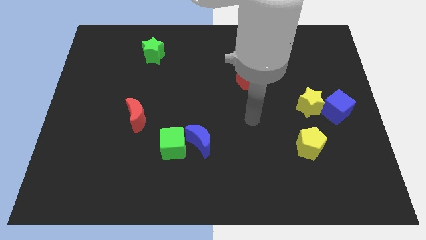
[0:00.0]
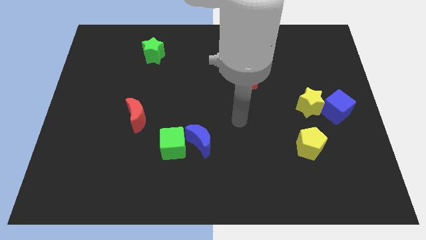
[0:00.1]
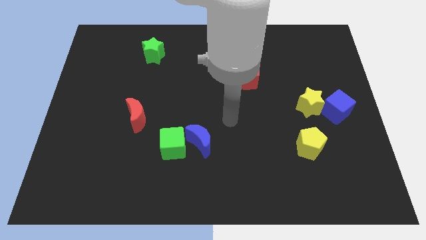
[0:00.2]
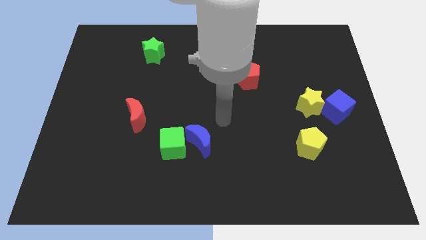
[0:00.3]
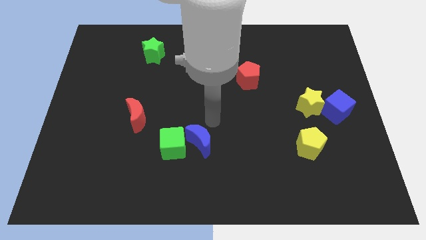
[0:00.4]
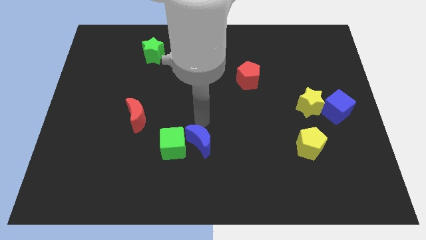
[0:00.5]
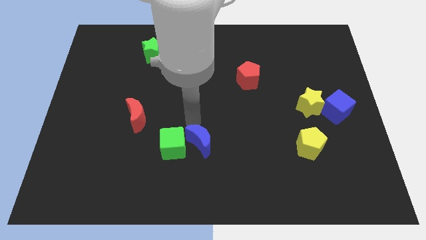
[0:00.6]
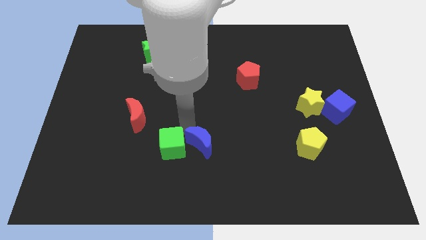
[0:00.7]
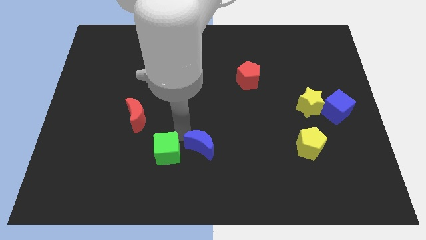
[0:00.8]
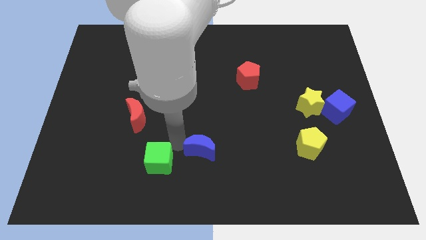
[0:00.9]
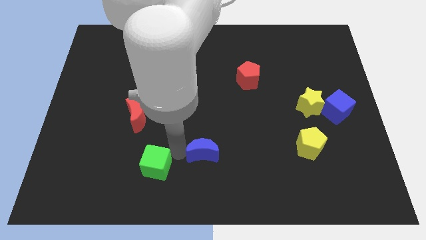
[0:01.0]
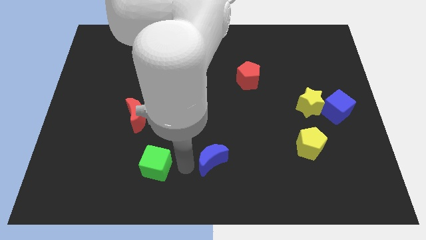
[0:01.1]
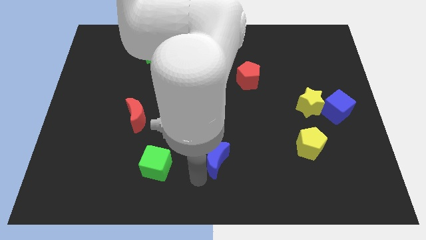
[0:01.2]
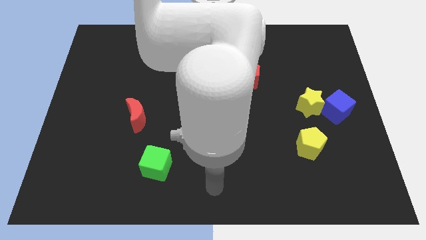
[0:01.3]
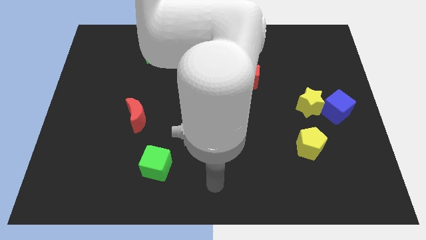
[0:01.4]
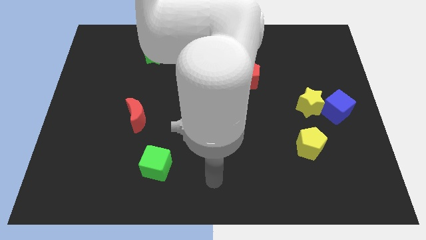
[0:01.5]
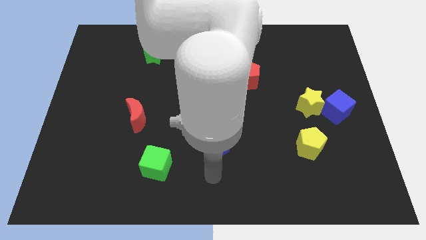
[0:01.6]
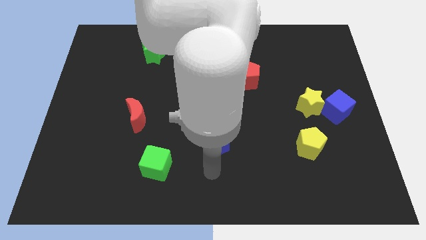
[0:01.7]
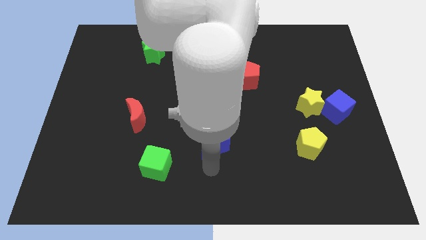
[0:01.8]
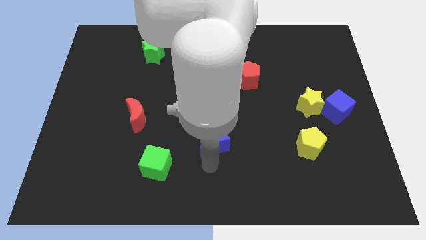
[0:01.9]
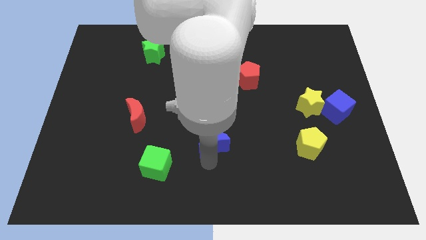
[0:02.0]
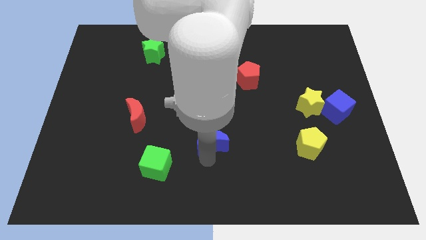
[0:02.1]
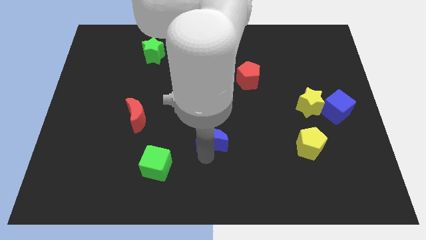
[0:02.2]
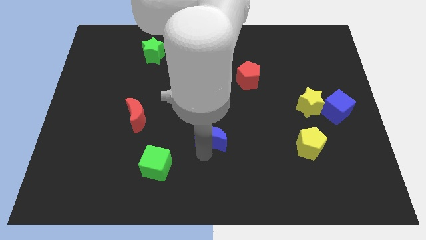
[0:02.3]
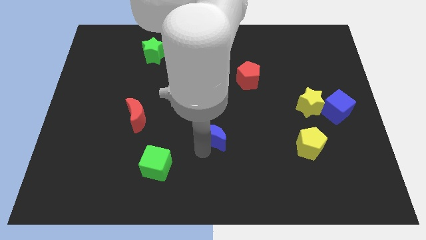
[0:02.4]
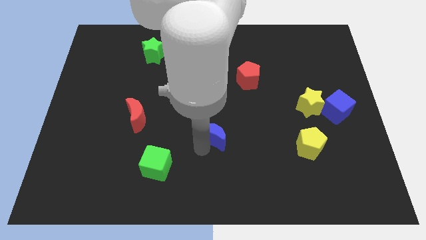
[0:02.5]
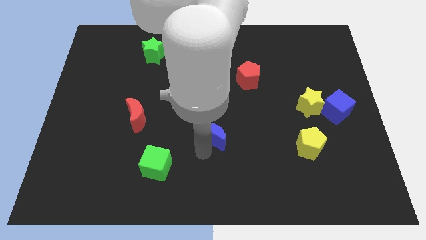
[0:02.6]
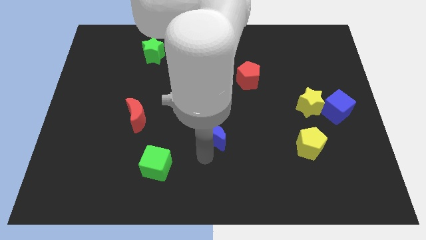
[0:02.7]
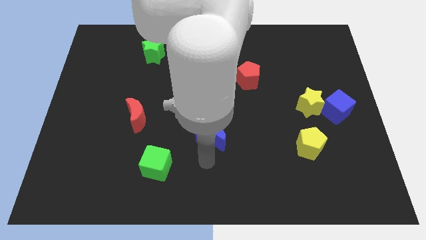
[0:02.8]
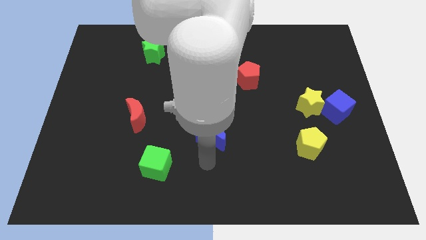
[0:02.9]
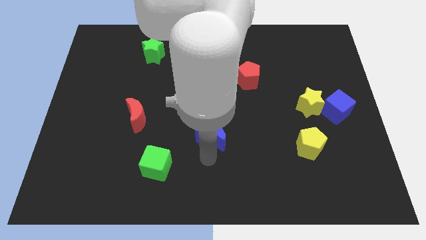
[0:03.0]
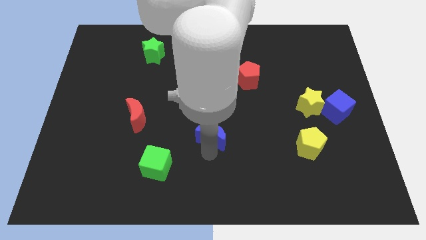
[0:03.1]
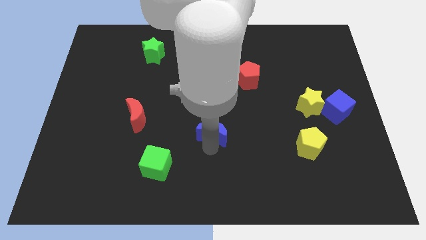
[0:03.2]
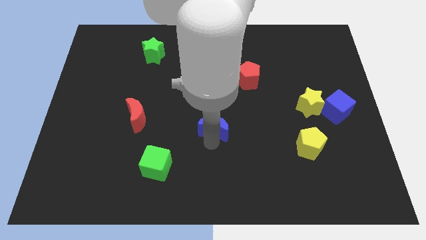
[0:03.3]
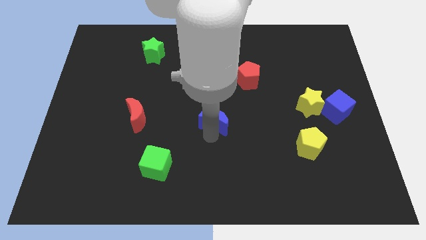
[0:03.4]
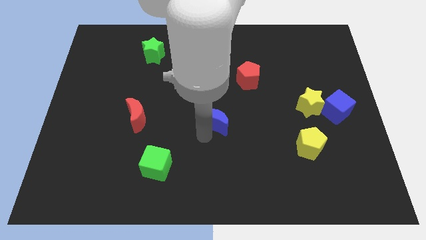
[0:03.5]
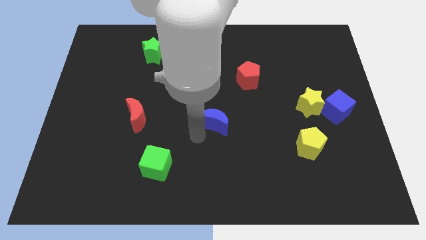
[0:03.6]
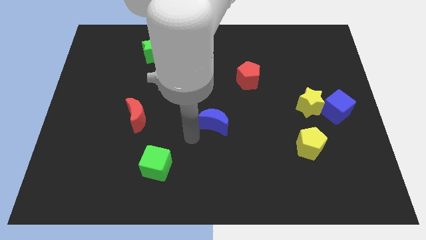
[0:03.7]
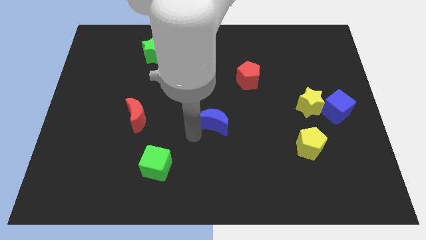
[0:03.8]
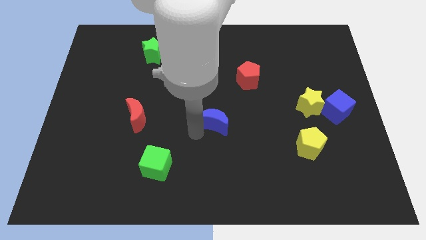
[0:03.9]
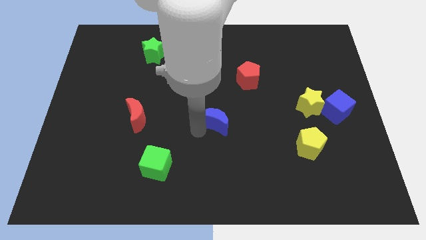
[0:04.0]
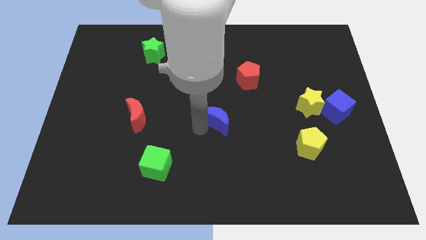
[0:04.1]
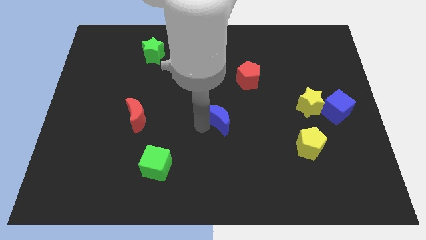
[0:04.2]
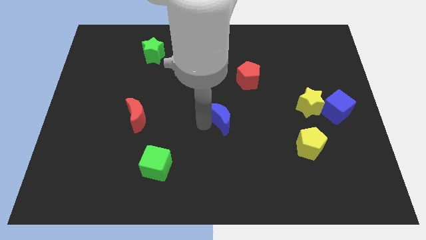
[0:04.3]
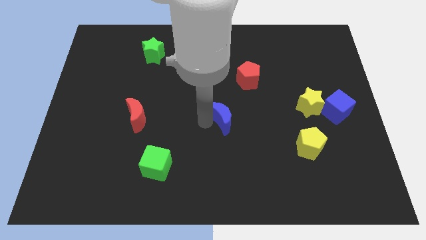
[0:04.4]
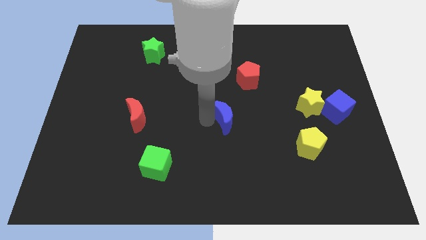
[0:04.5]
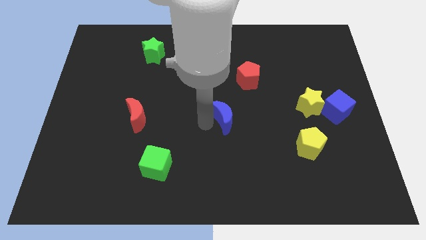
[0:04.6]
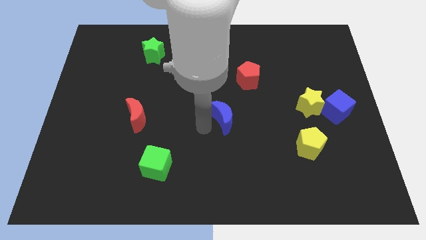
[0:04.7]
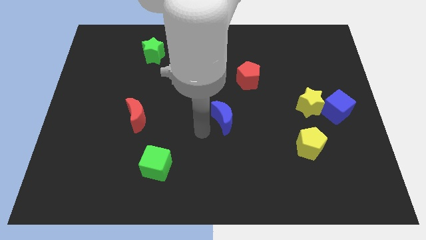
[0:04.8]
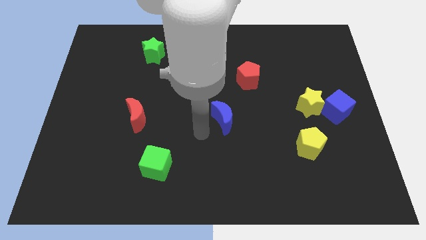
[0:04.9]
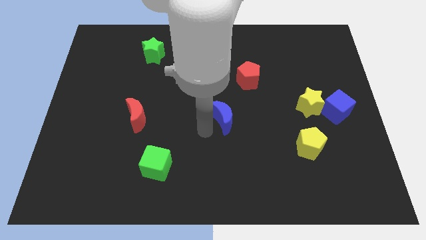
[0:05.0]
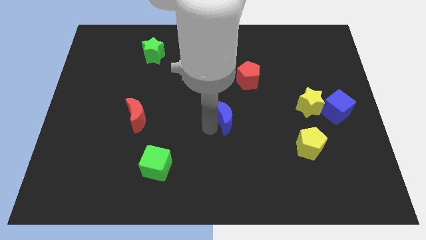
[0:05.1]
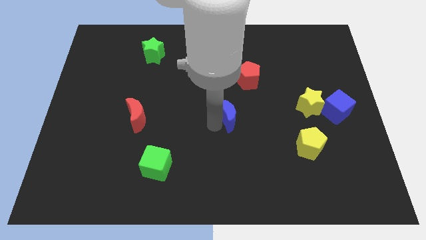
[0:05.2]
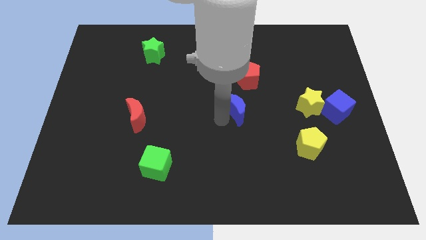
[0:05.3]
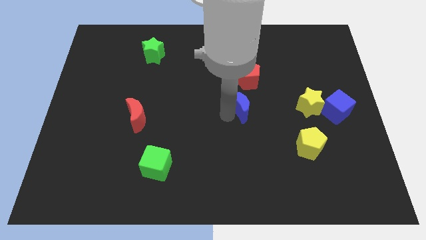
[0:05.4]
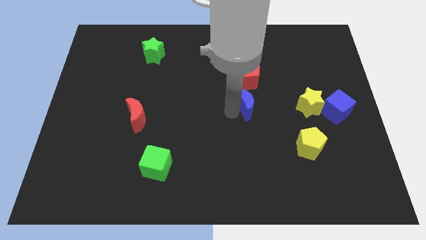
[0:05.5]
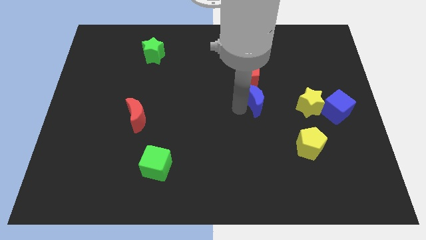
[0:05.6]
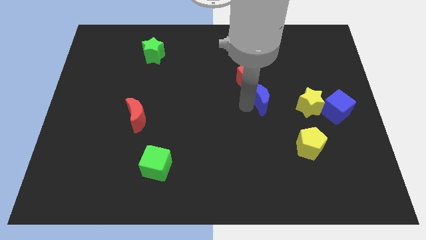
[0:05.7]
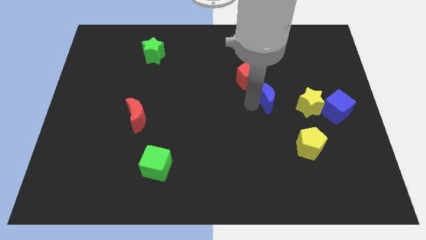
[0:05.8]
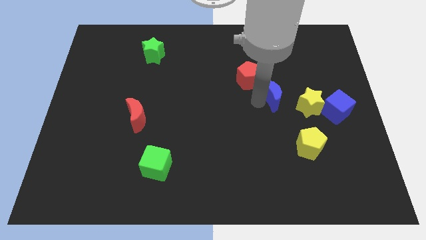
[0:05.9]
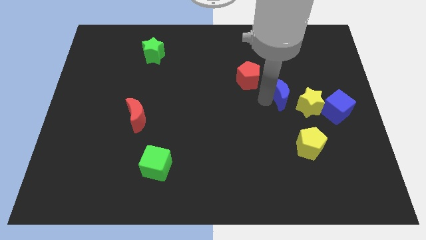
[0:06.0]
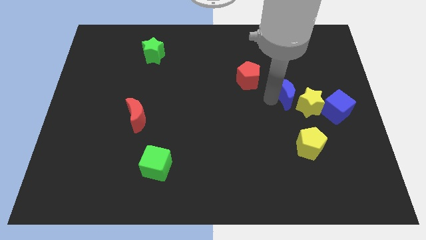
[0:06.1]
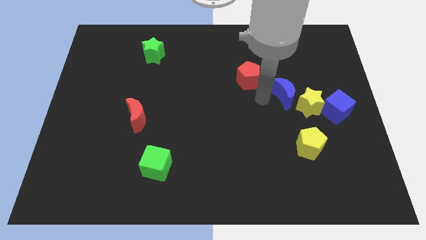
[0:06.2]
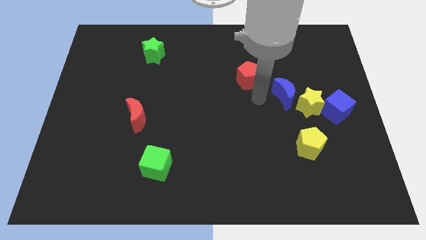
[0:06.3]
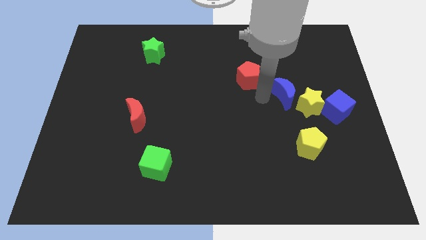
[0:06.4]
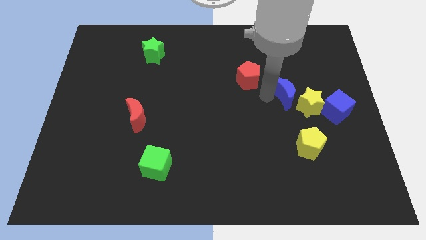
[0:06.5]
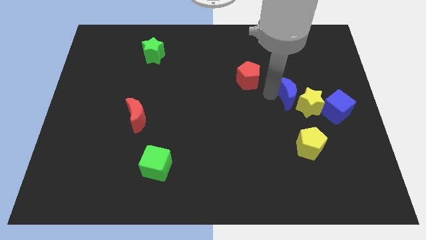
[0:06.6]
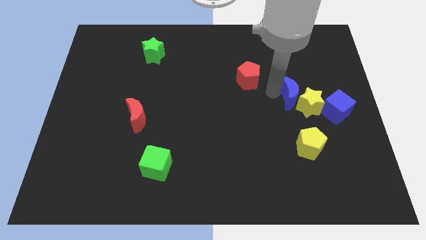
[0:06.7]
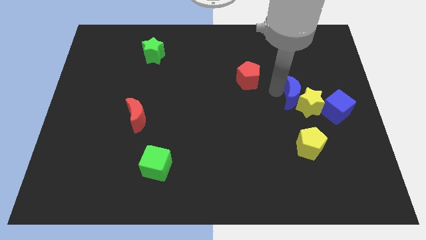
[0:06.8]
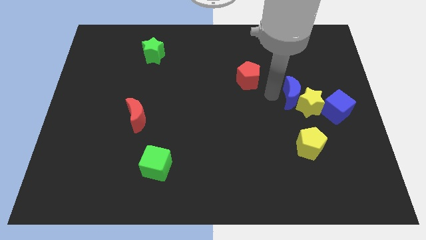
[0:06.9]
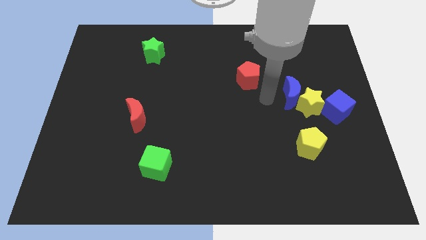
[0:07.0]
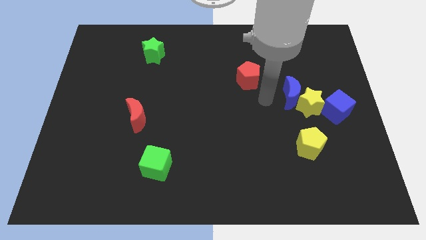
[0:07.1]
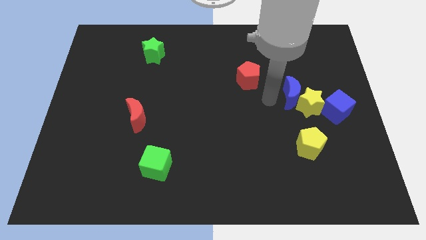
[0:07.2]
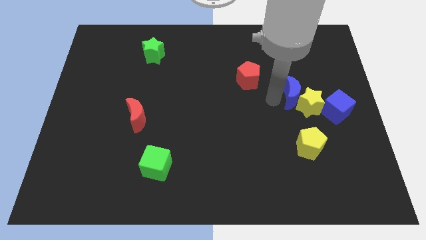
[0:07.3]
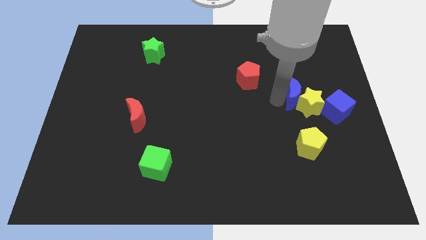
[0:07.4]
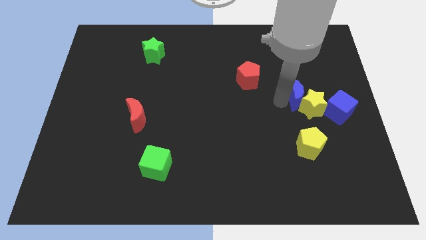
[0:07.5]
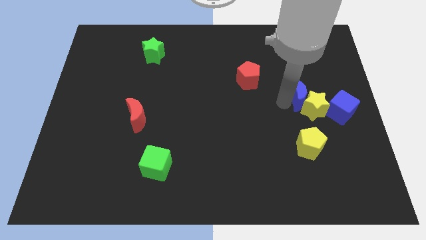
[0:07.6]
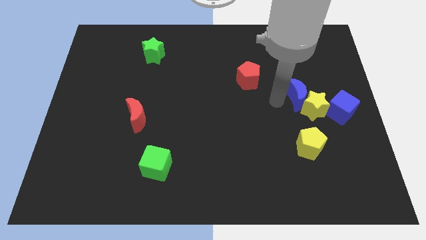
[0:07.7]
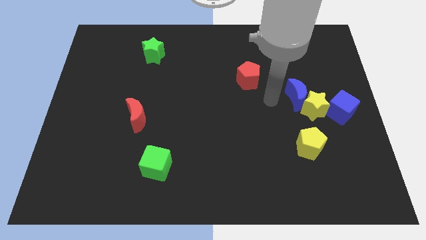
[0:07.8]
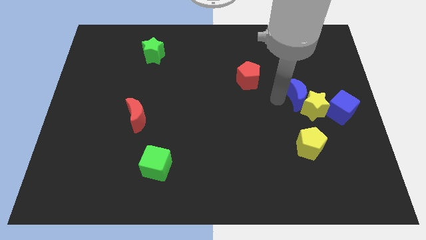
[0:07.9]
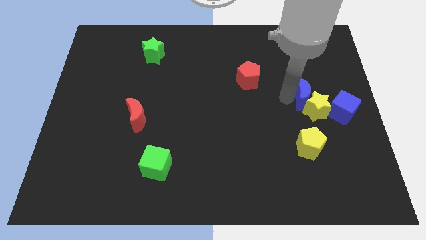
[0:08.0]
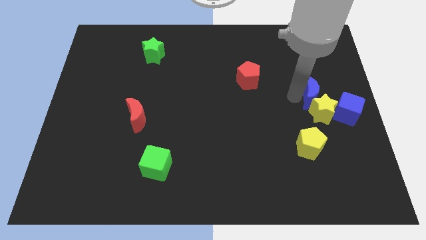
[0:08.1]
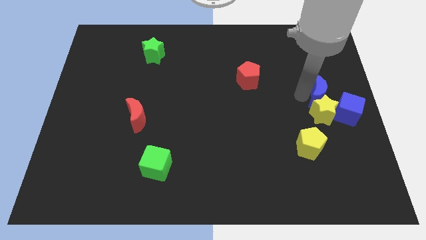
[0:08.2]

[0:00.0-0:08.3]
push the blue moon to the top right side of the yellow star

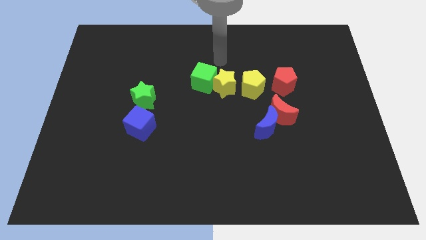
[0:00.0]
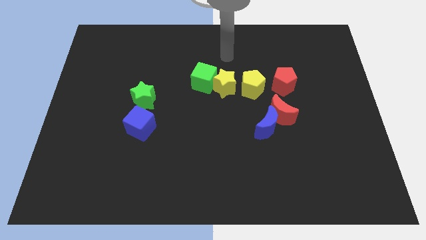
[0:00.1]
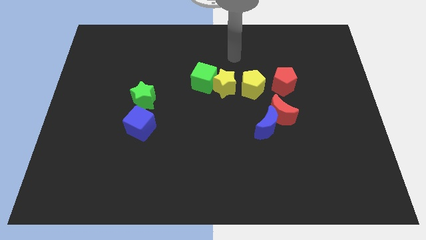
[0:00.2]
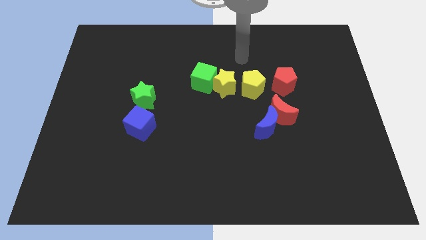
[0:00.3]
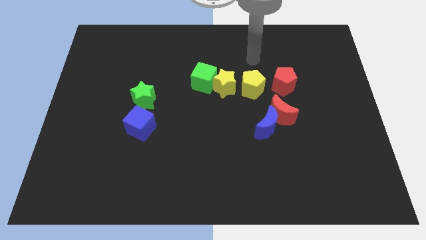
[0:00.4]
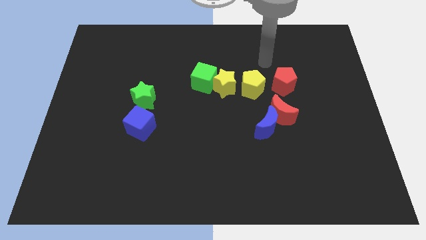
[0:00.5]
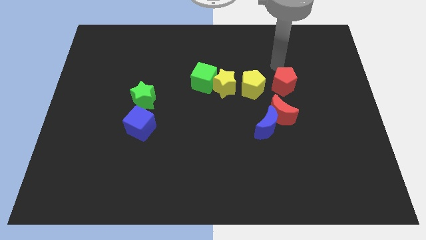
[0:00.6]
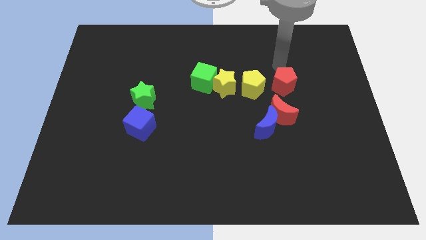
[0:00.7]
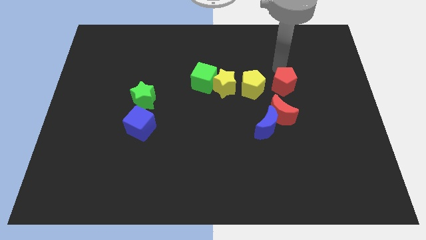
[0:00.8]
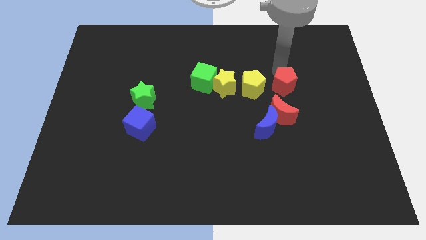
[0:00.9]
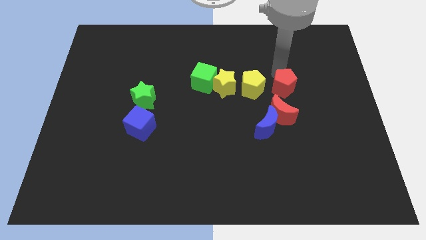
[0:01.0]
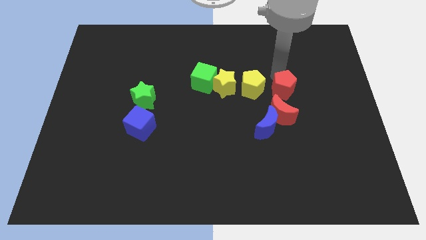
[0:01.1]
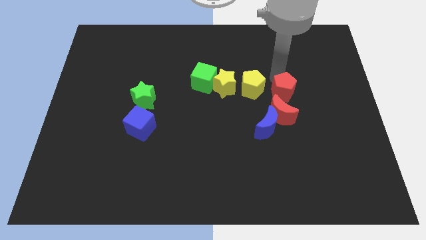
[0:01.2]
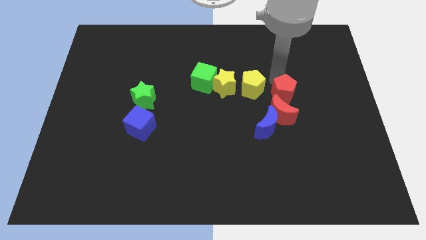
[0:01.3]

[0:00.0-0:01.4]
slide the red pentagon to the top right side of the blue moon
